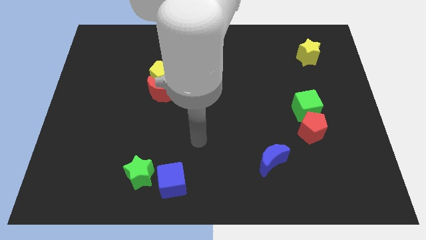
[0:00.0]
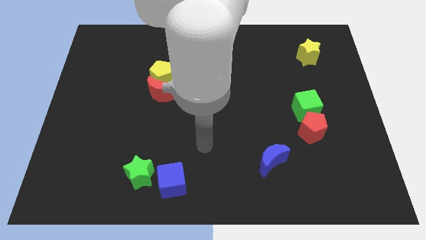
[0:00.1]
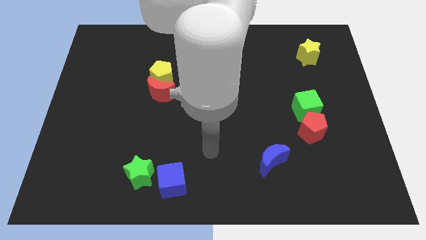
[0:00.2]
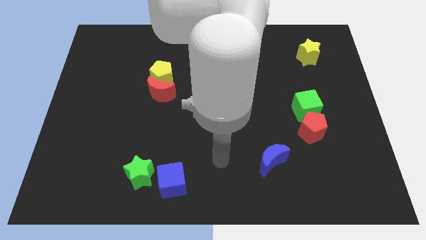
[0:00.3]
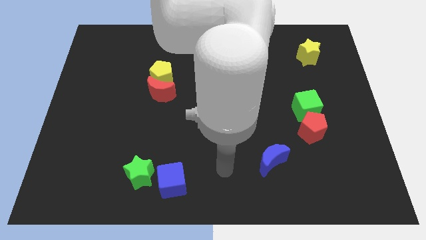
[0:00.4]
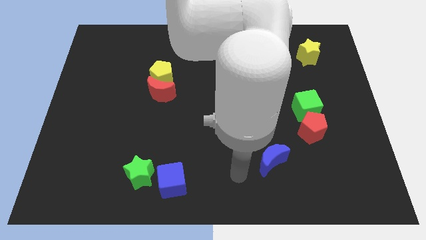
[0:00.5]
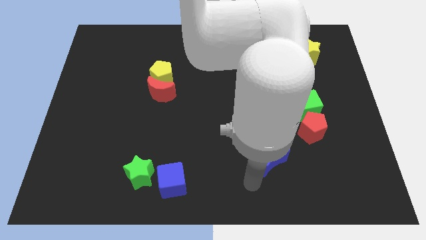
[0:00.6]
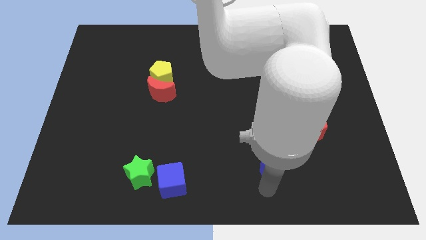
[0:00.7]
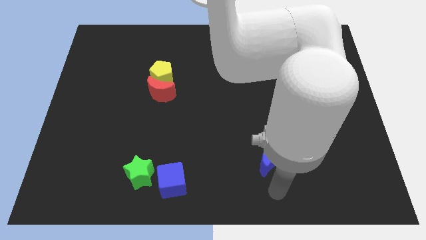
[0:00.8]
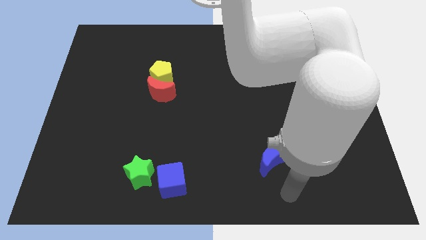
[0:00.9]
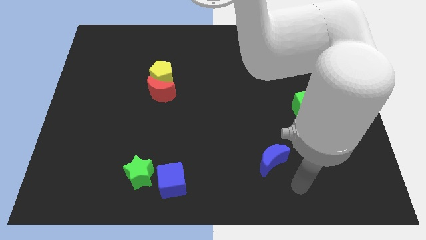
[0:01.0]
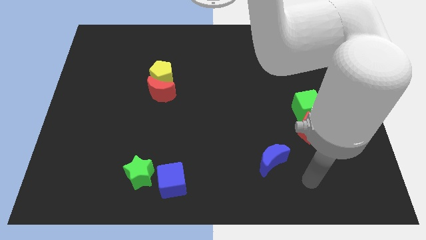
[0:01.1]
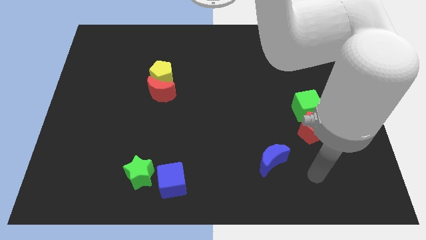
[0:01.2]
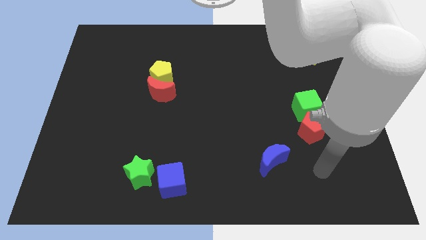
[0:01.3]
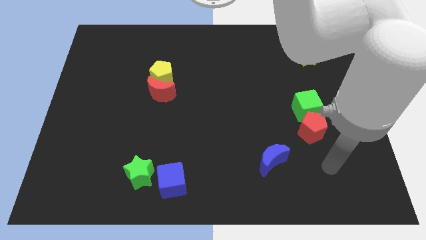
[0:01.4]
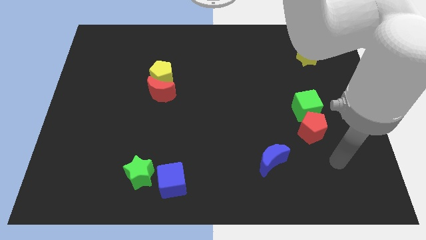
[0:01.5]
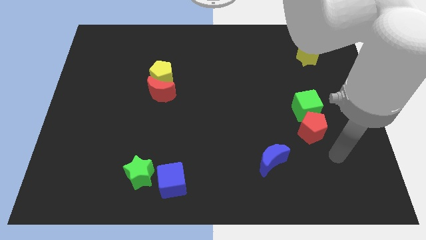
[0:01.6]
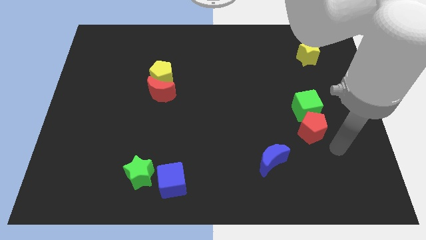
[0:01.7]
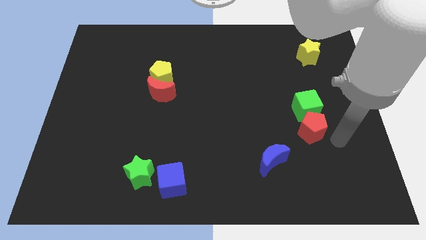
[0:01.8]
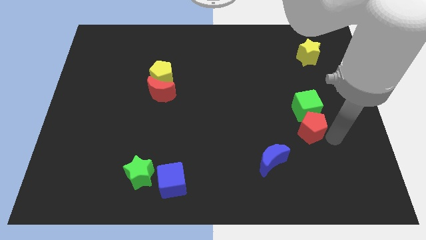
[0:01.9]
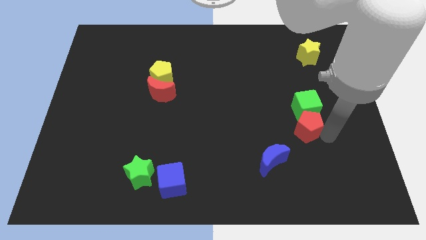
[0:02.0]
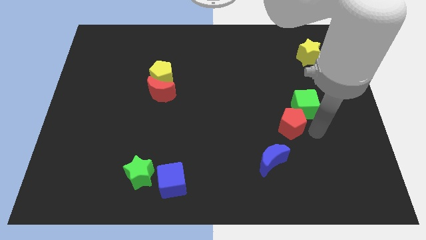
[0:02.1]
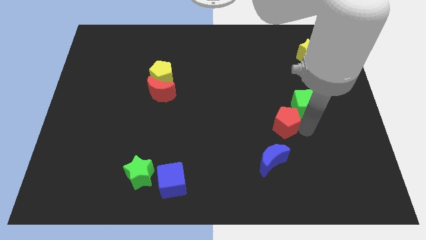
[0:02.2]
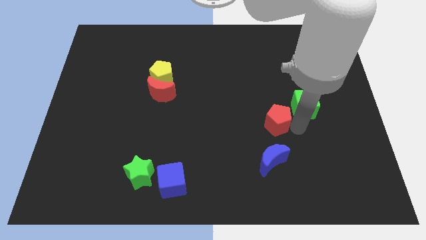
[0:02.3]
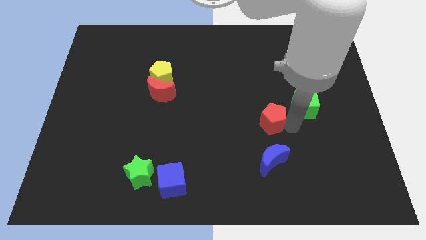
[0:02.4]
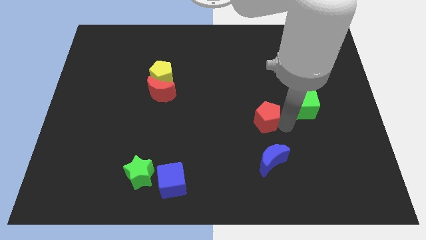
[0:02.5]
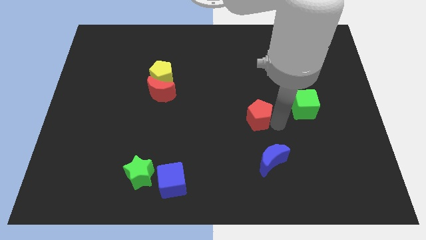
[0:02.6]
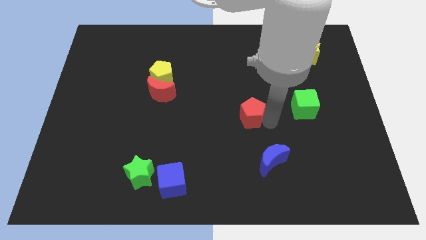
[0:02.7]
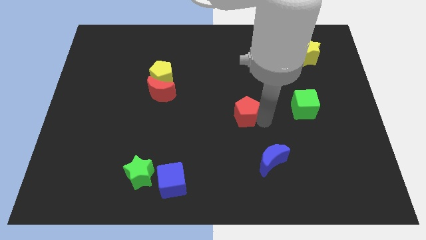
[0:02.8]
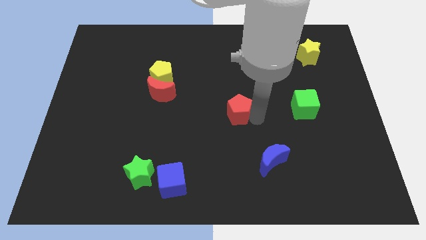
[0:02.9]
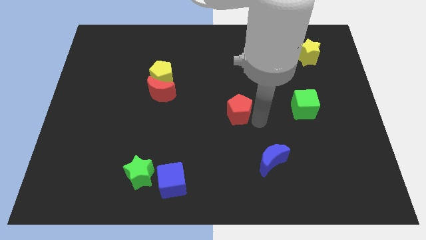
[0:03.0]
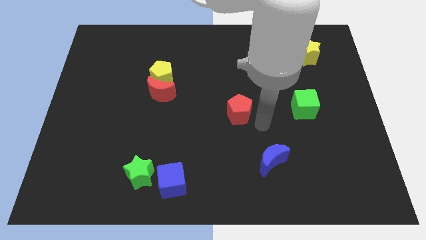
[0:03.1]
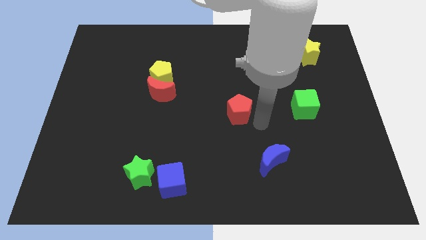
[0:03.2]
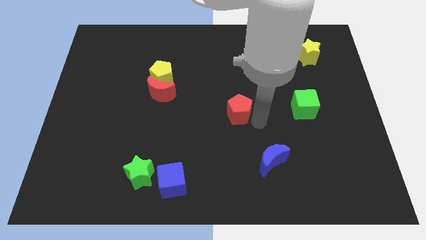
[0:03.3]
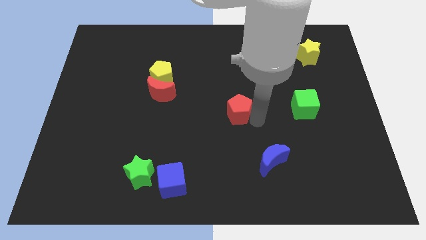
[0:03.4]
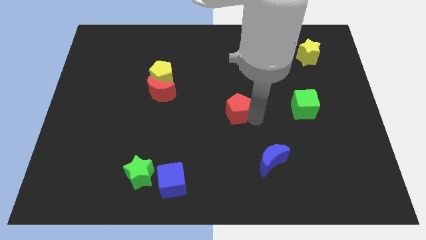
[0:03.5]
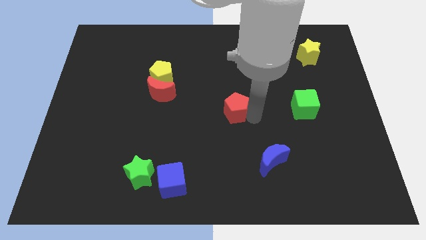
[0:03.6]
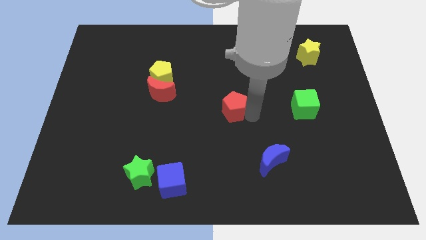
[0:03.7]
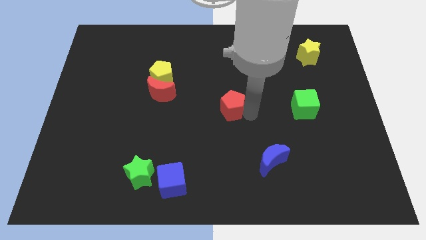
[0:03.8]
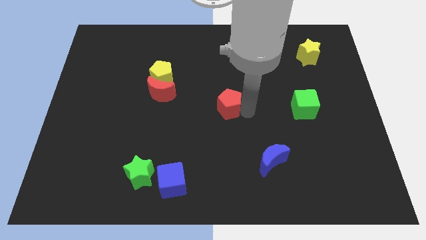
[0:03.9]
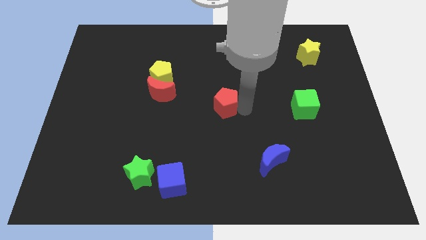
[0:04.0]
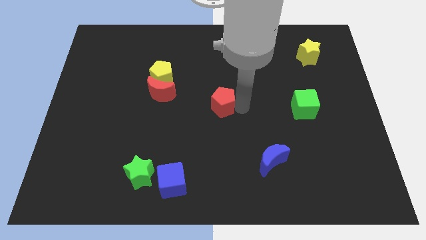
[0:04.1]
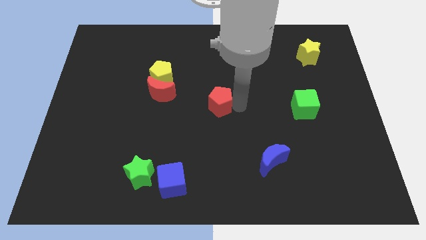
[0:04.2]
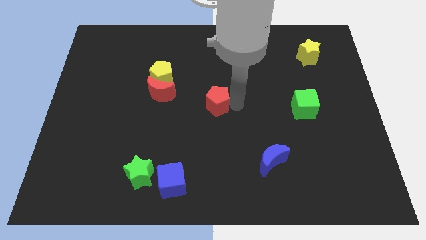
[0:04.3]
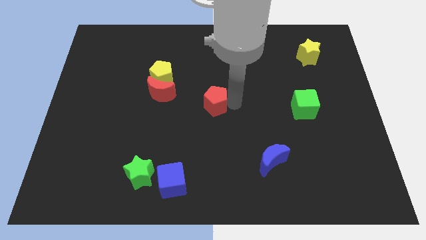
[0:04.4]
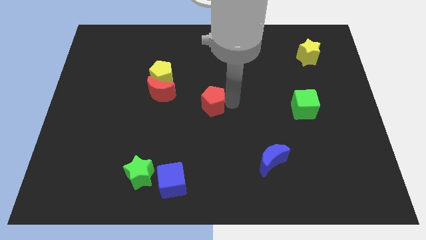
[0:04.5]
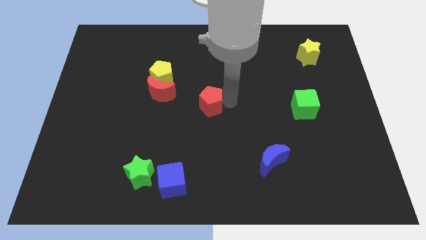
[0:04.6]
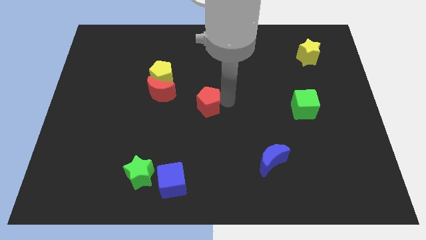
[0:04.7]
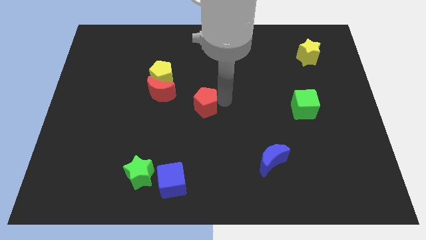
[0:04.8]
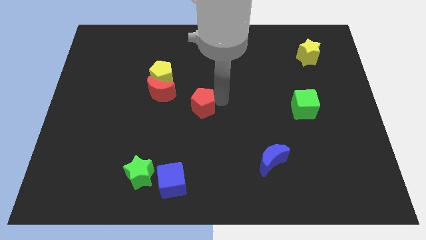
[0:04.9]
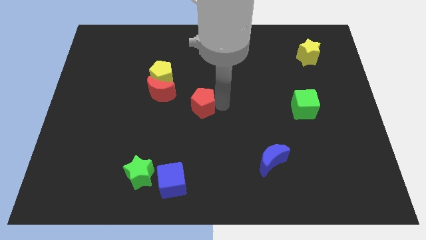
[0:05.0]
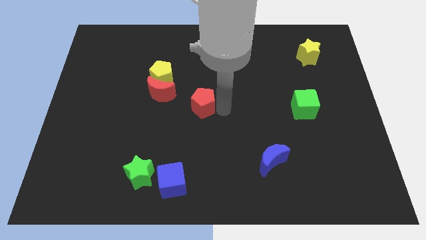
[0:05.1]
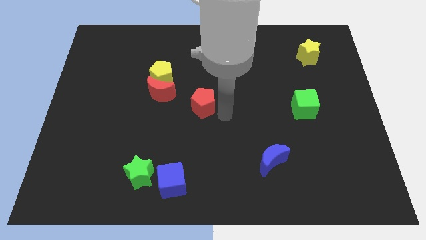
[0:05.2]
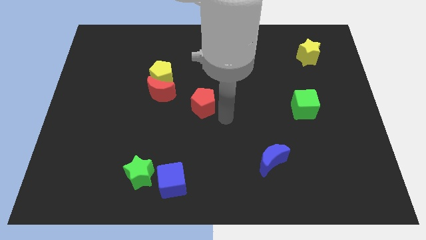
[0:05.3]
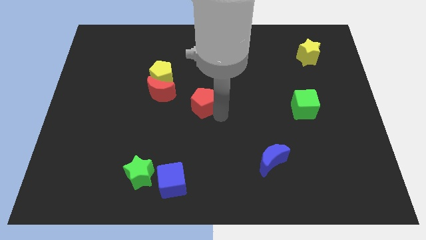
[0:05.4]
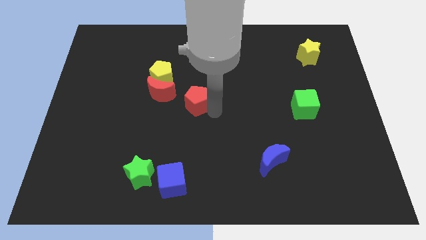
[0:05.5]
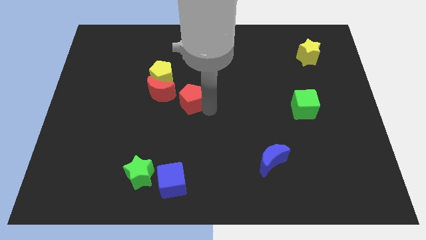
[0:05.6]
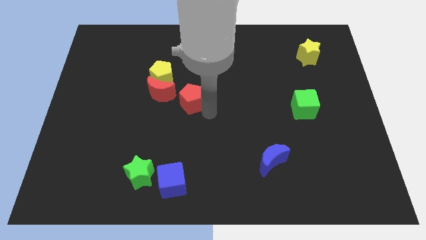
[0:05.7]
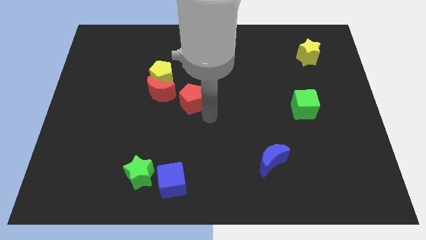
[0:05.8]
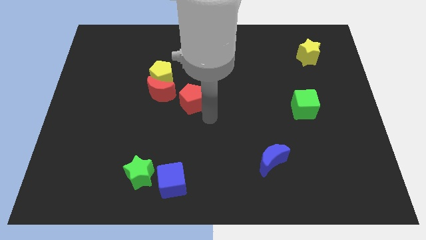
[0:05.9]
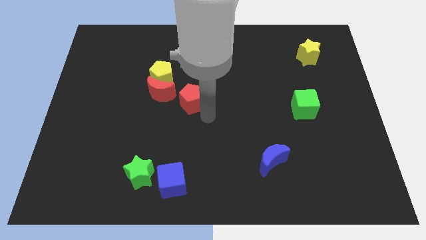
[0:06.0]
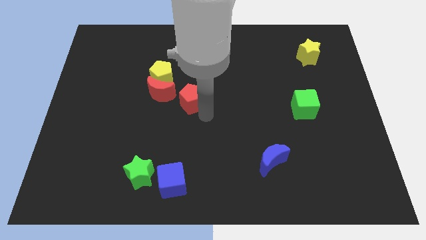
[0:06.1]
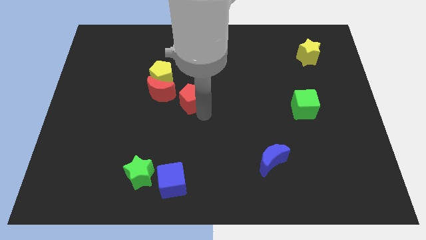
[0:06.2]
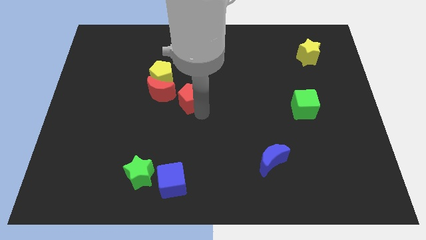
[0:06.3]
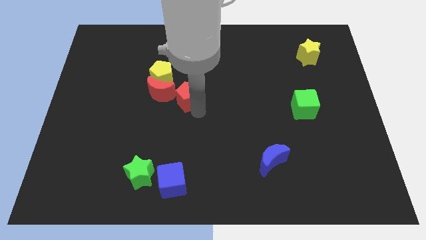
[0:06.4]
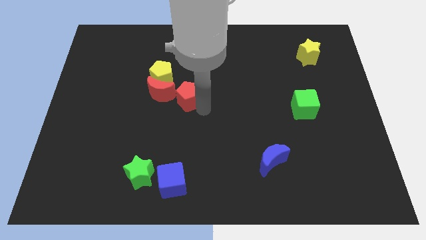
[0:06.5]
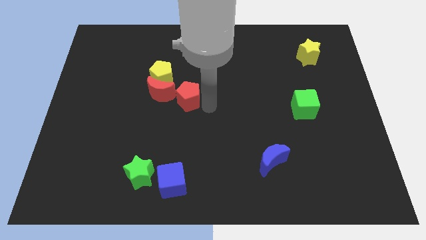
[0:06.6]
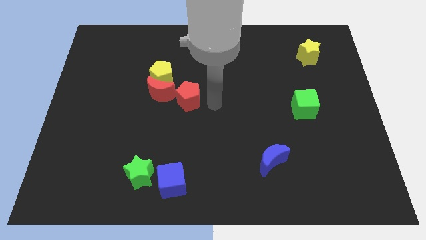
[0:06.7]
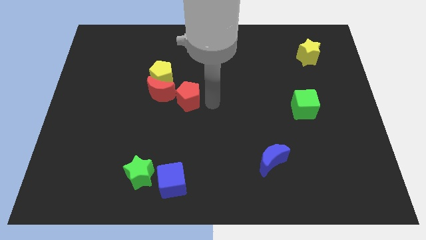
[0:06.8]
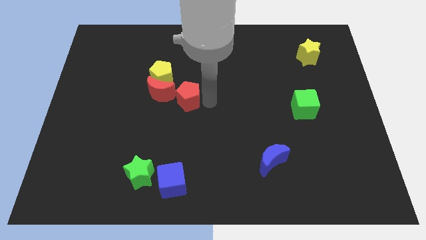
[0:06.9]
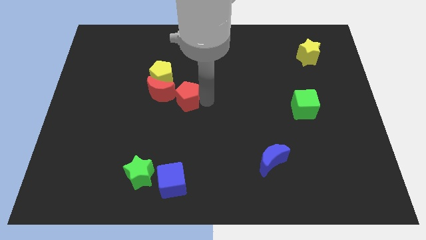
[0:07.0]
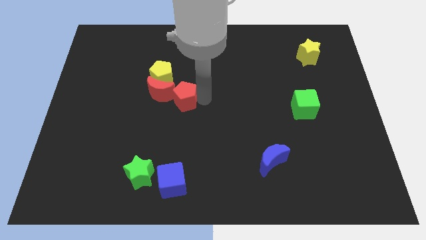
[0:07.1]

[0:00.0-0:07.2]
push the red pentagon close to the red moon

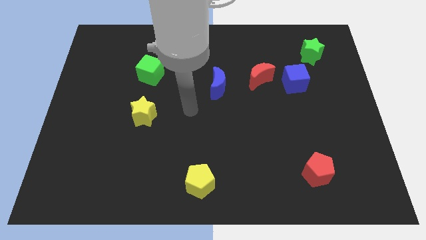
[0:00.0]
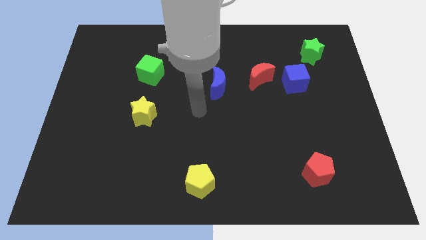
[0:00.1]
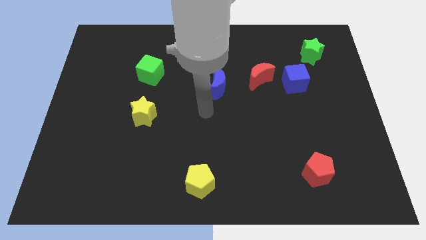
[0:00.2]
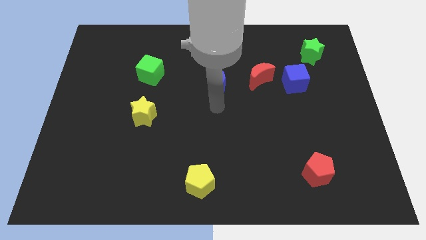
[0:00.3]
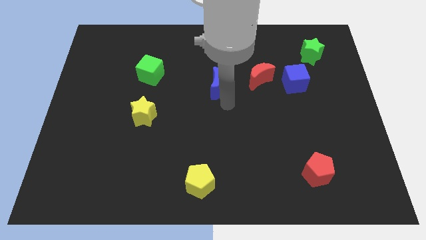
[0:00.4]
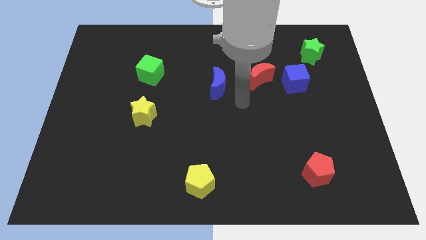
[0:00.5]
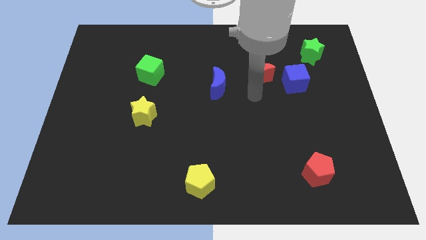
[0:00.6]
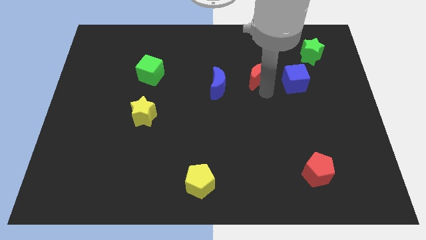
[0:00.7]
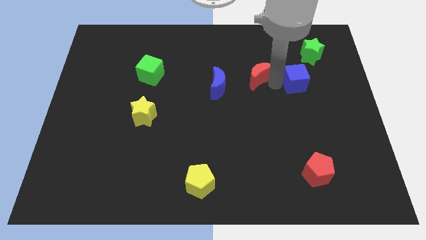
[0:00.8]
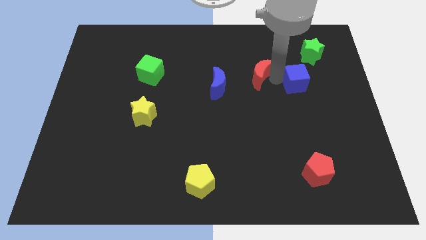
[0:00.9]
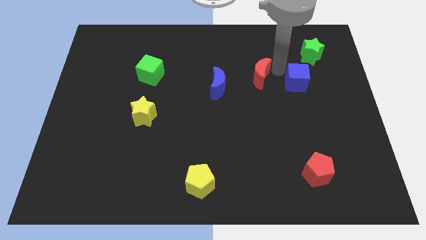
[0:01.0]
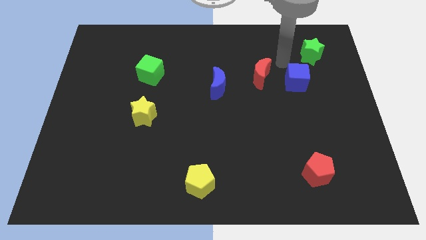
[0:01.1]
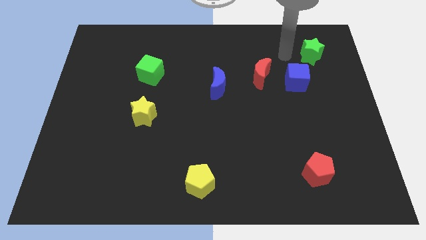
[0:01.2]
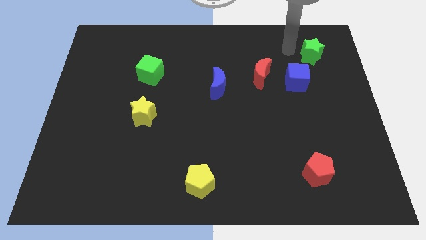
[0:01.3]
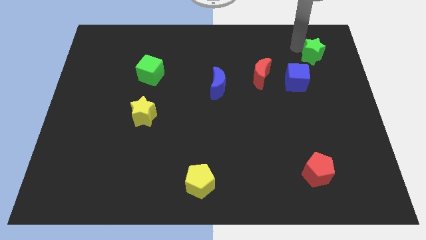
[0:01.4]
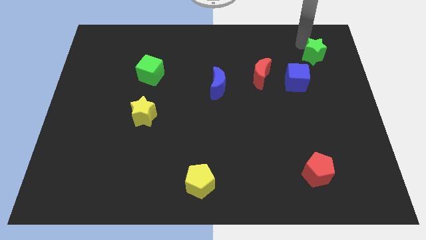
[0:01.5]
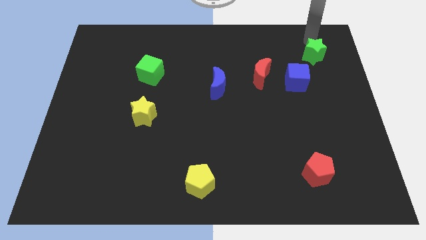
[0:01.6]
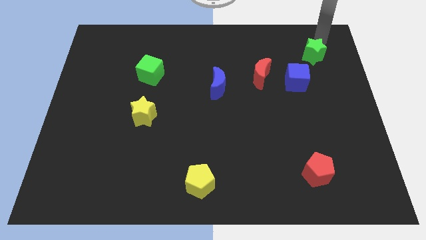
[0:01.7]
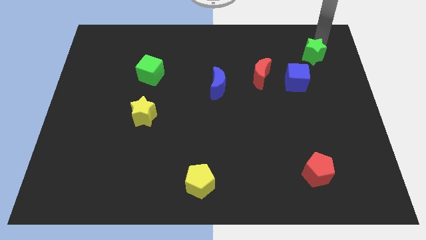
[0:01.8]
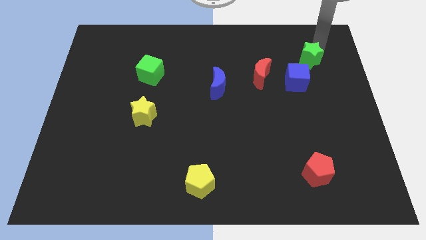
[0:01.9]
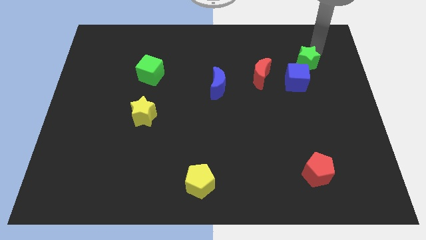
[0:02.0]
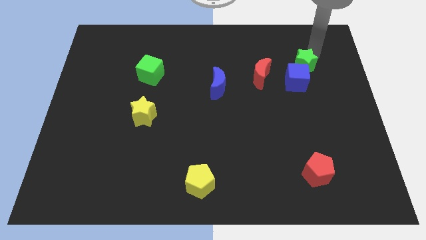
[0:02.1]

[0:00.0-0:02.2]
push the green star to the blue cube
